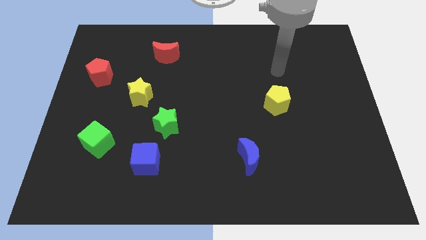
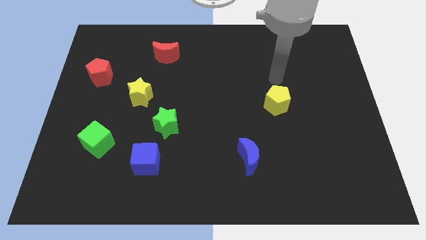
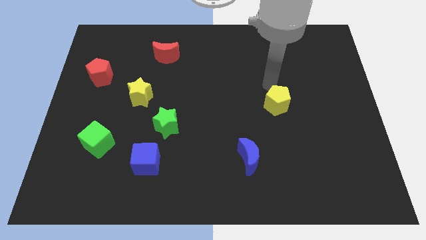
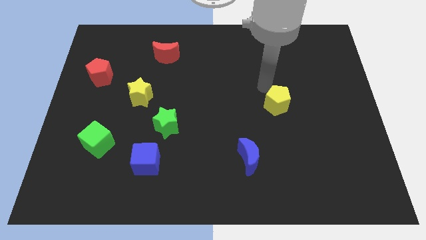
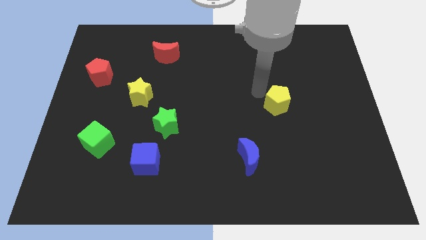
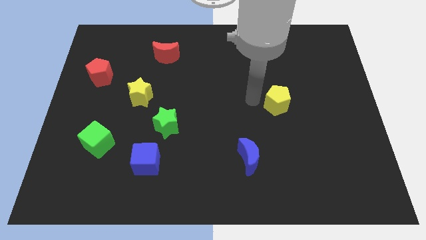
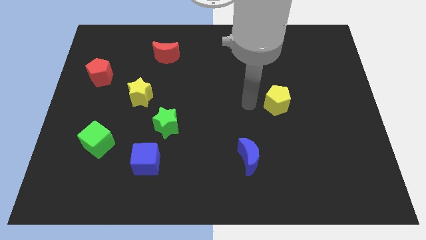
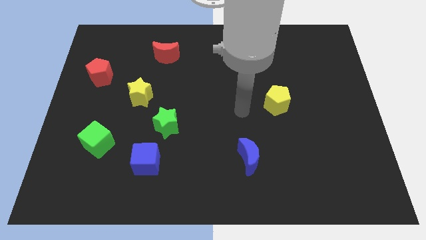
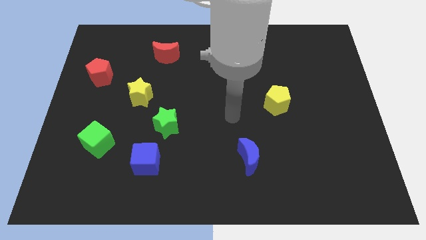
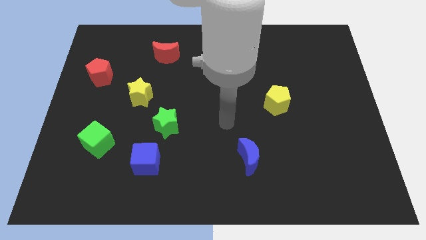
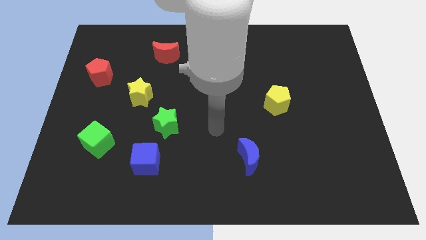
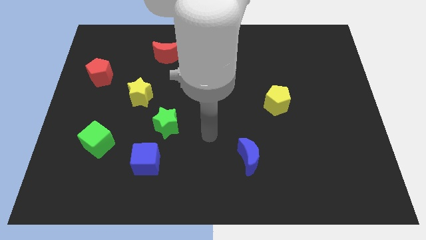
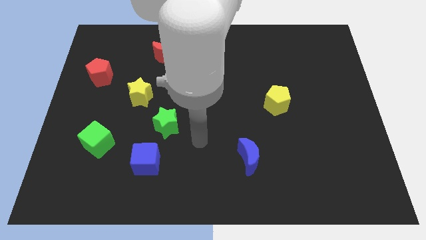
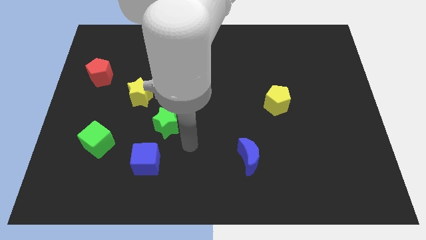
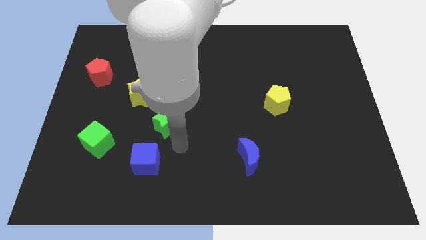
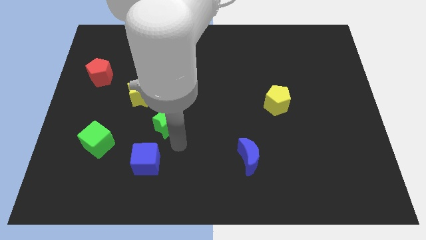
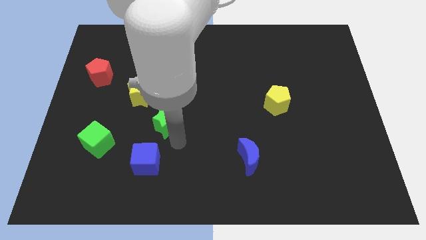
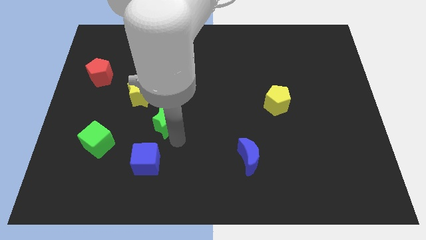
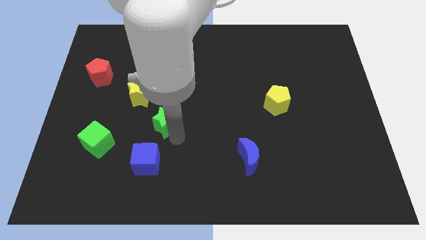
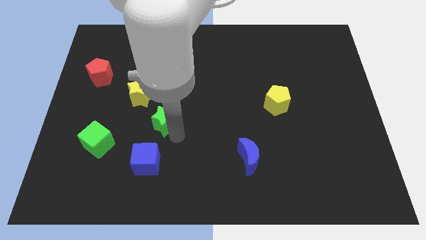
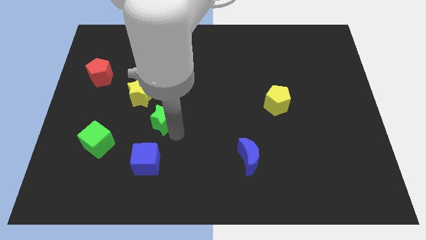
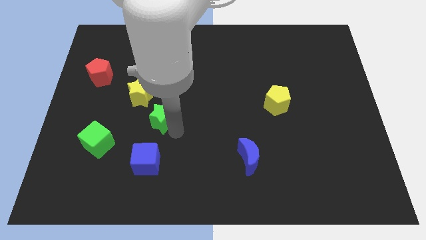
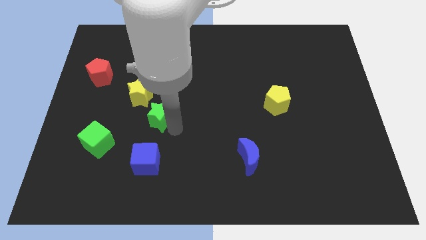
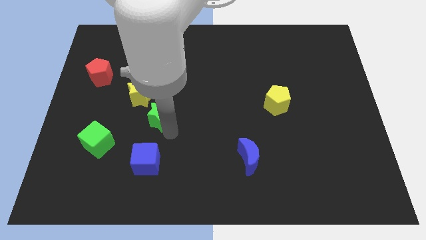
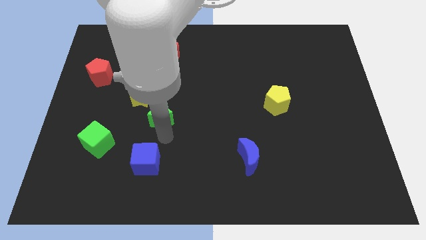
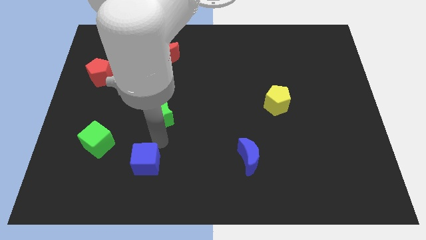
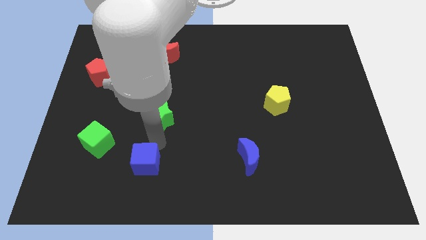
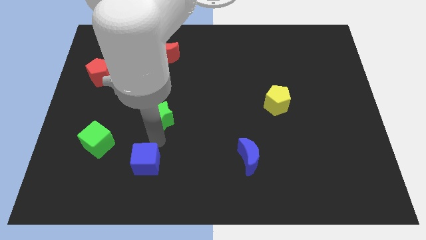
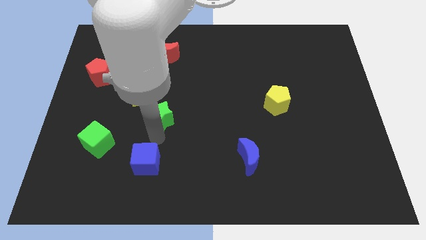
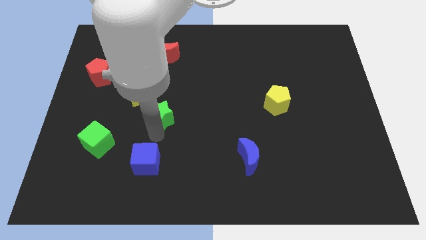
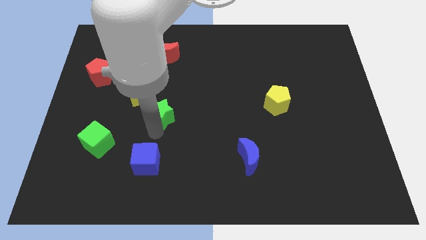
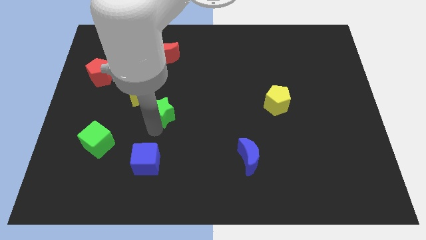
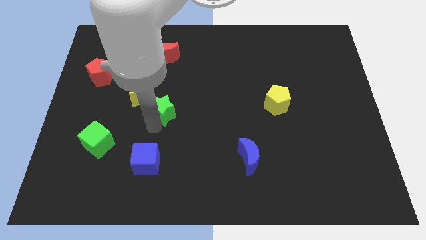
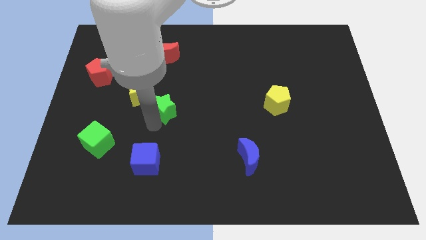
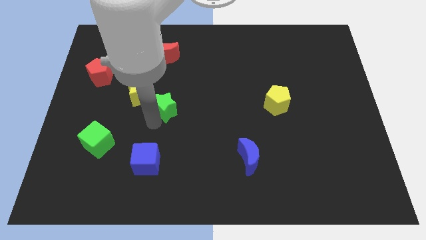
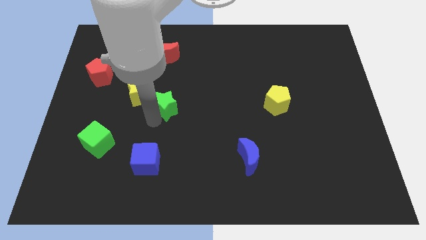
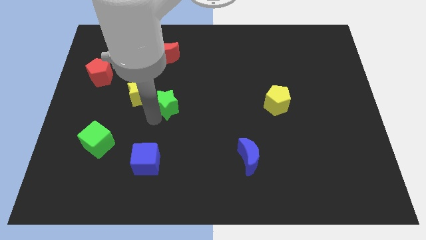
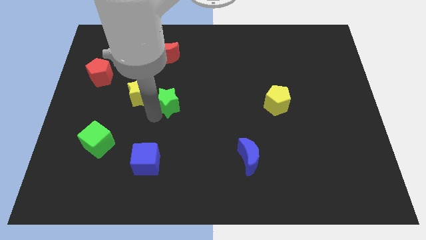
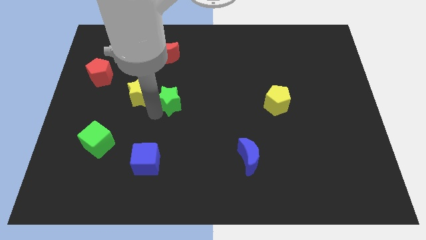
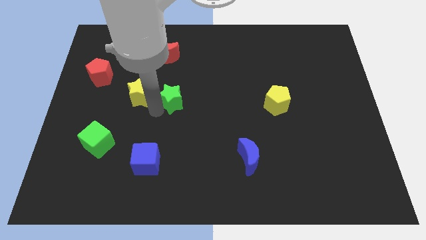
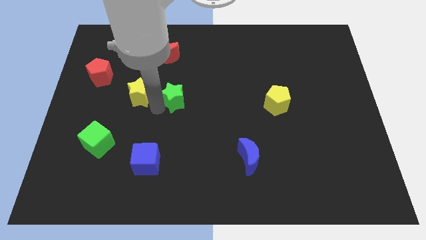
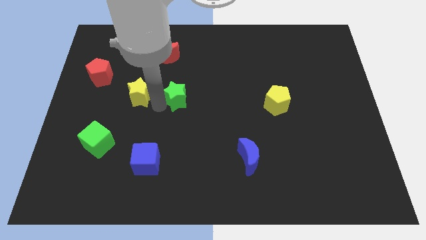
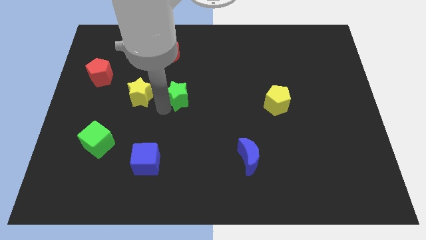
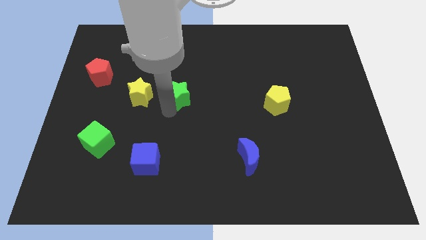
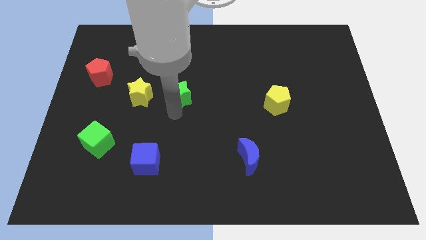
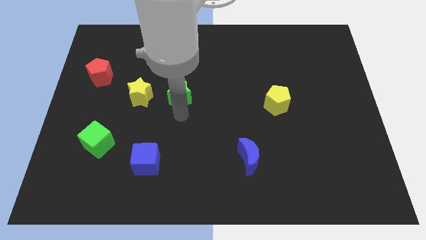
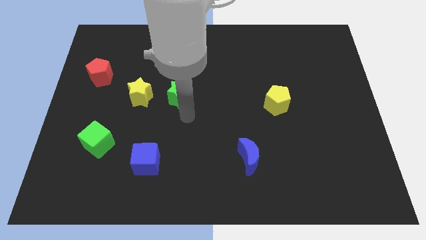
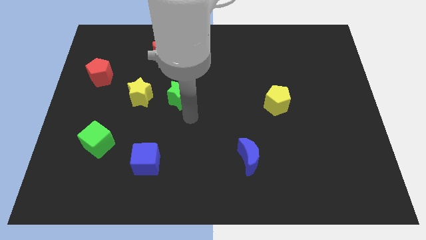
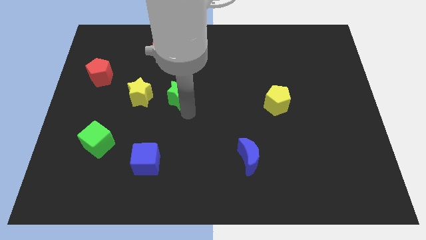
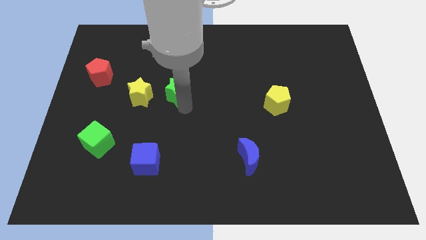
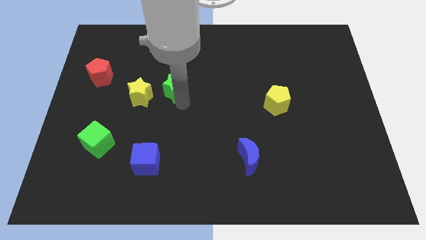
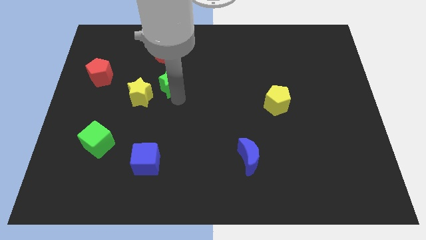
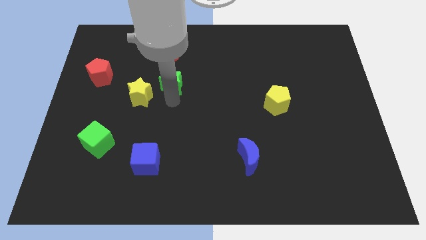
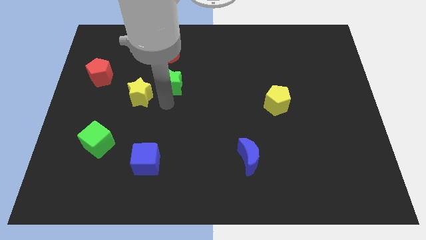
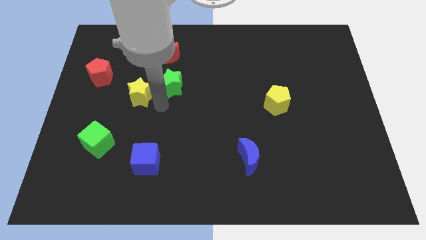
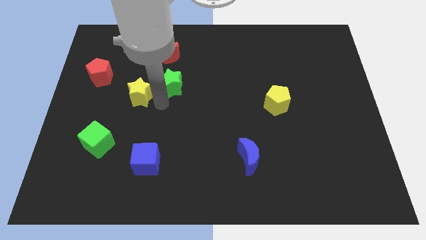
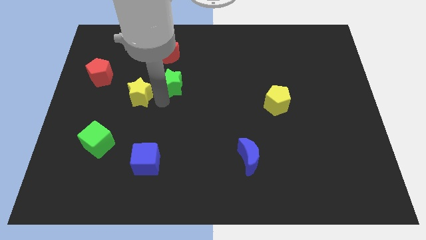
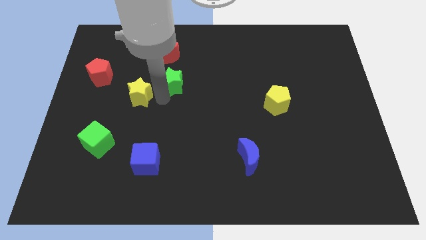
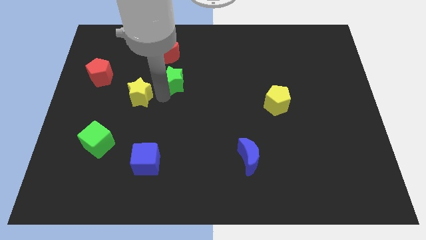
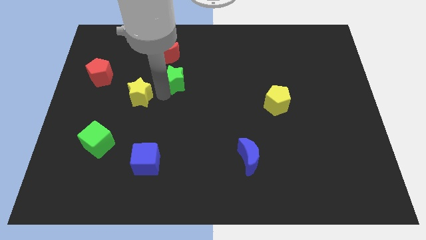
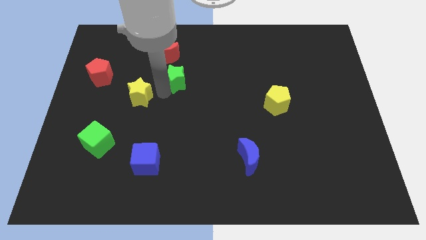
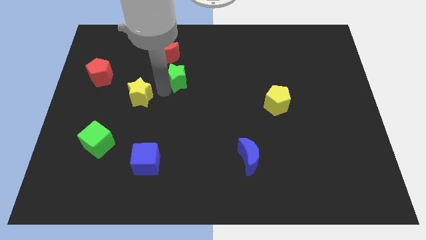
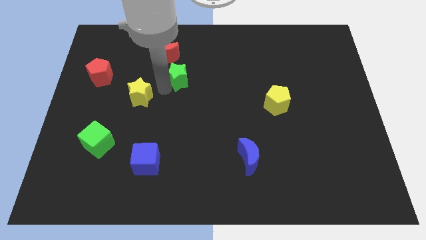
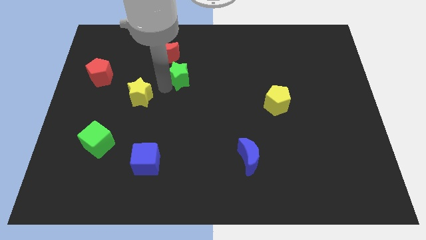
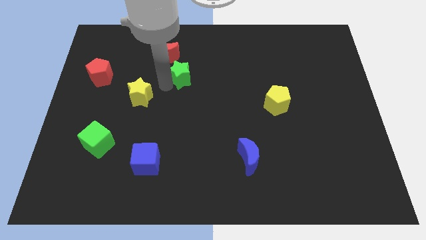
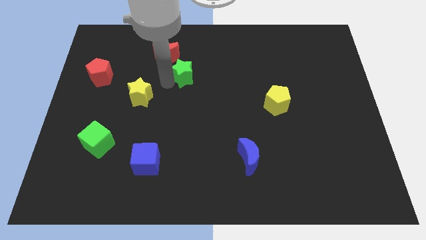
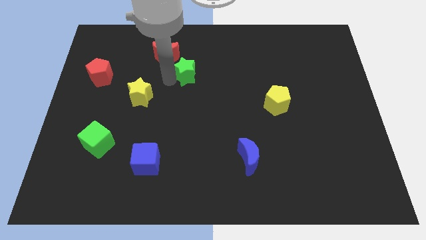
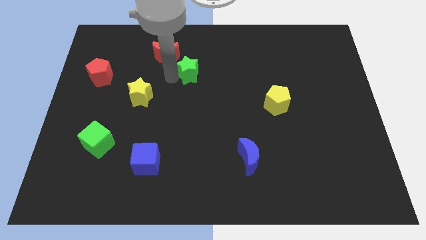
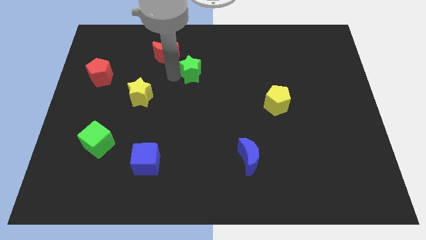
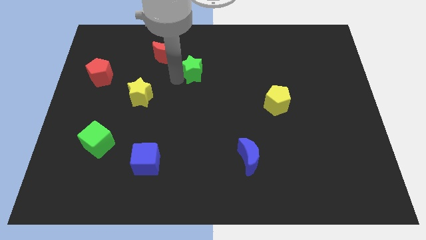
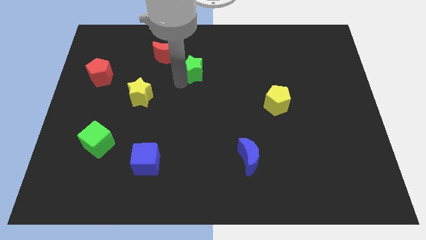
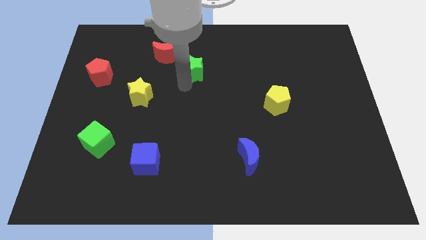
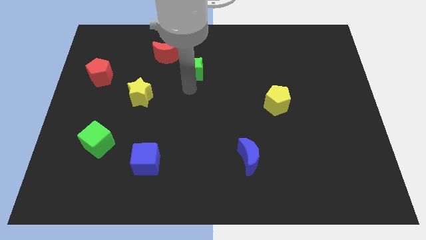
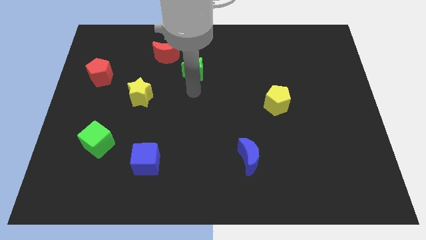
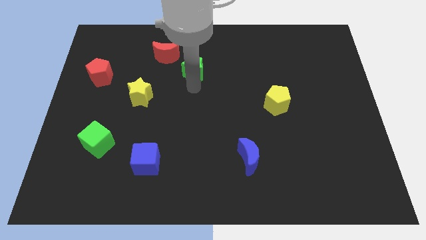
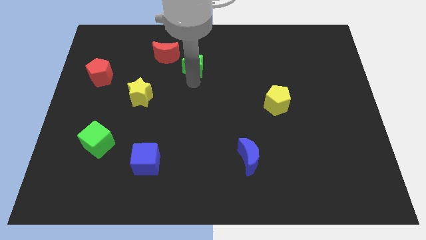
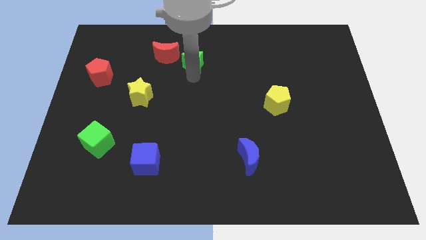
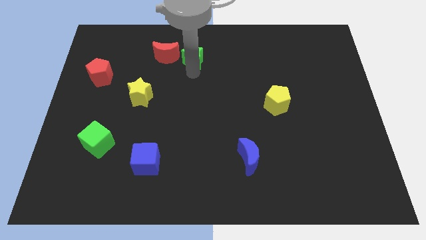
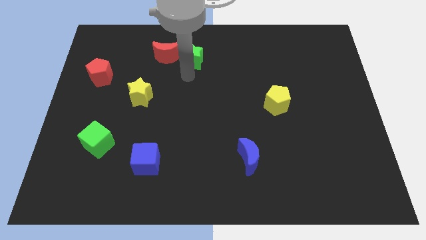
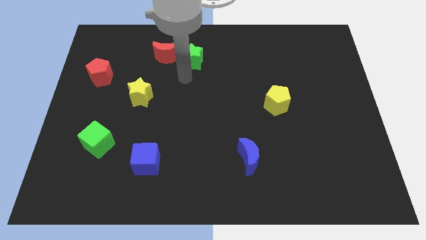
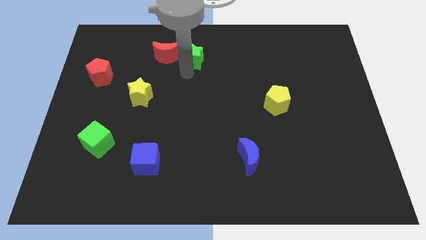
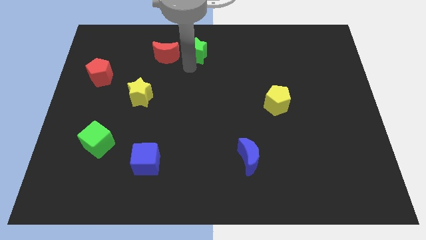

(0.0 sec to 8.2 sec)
put the green star to the top
